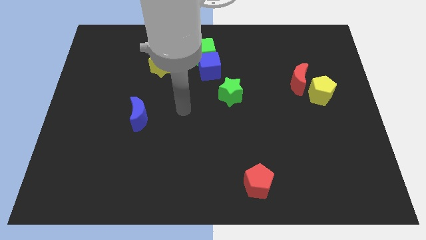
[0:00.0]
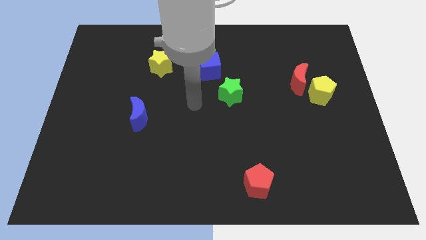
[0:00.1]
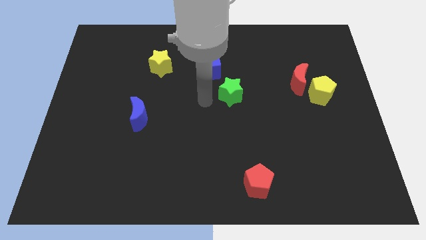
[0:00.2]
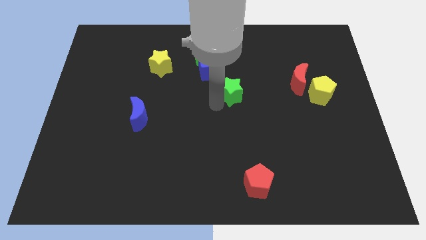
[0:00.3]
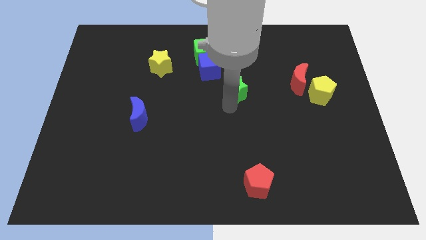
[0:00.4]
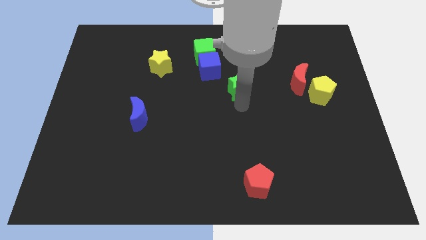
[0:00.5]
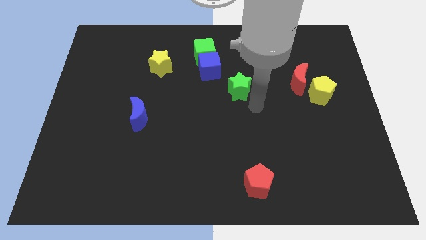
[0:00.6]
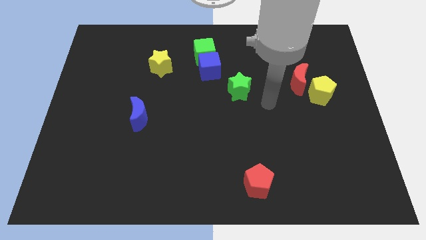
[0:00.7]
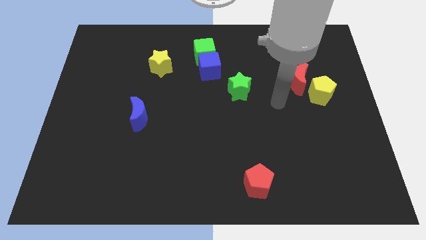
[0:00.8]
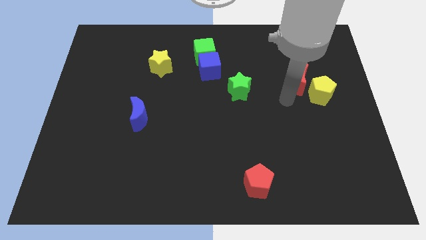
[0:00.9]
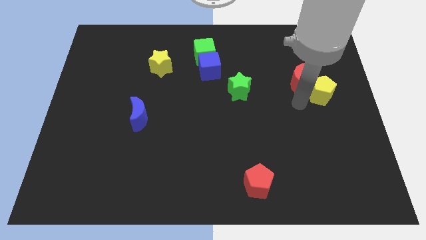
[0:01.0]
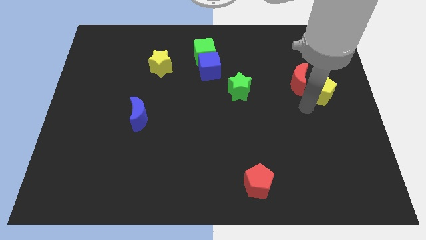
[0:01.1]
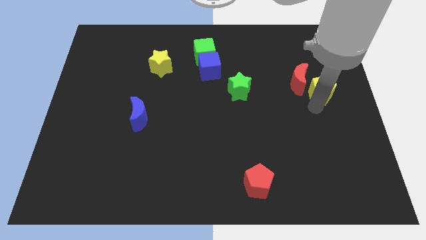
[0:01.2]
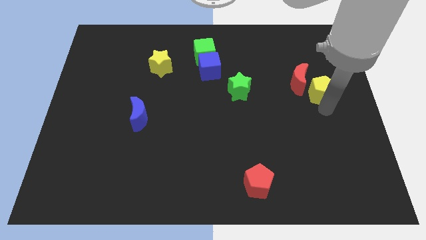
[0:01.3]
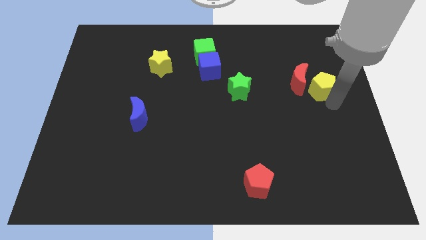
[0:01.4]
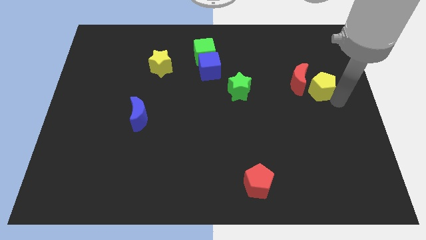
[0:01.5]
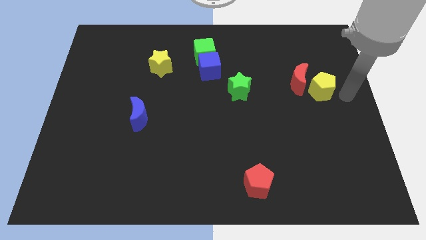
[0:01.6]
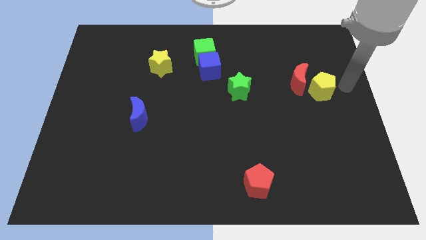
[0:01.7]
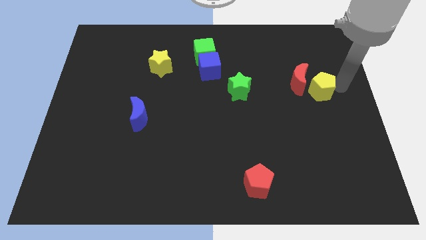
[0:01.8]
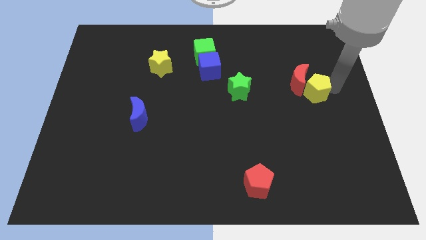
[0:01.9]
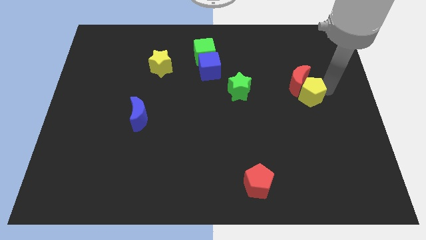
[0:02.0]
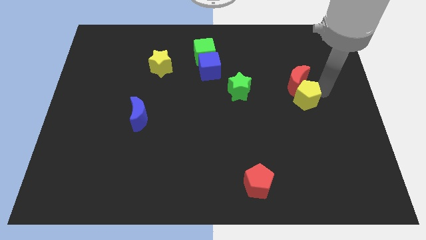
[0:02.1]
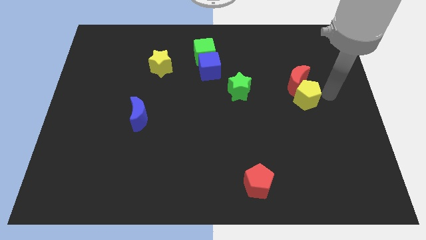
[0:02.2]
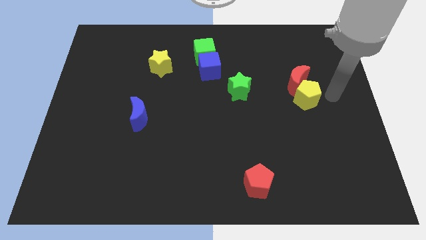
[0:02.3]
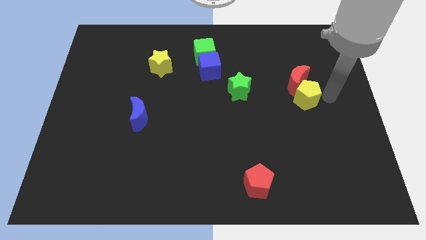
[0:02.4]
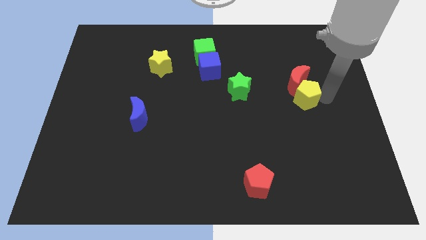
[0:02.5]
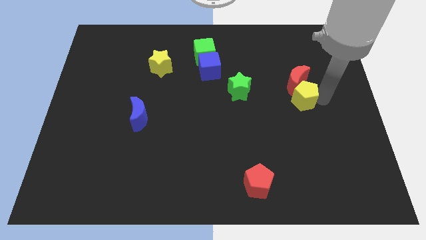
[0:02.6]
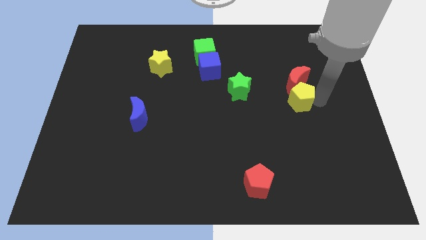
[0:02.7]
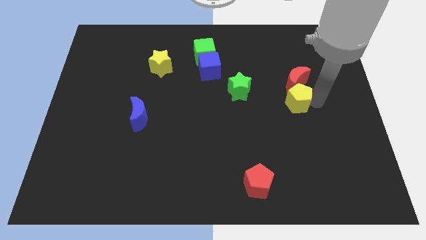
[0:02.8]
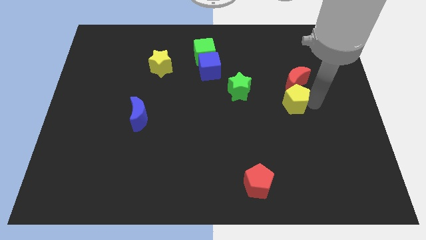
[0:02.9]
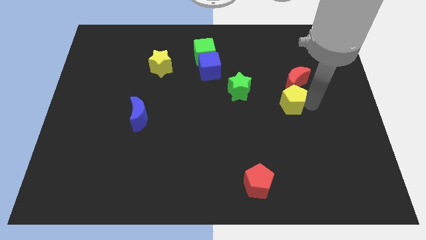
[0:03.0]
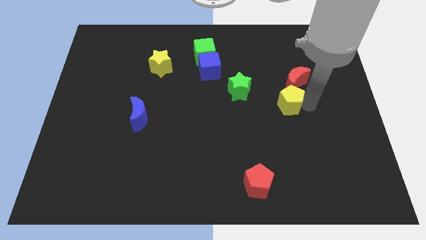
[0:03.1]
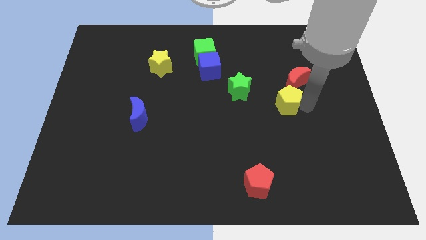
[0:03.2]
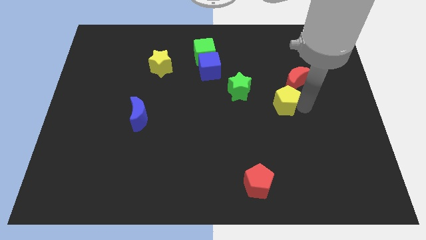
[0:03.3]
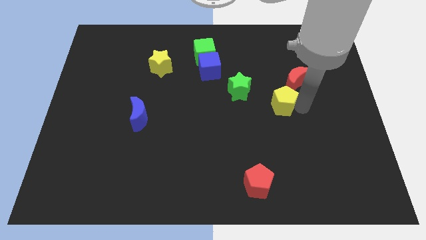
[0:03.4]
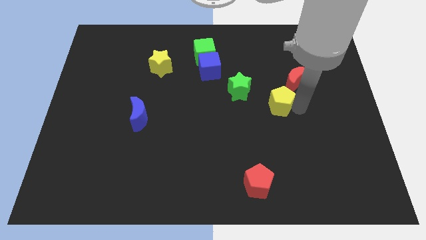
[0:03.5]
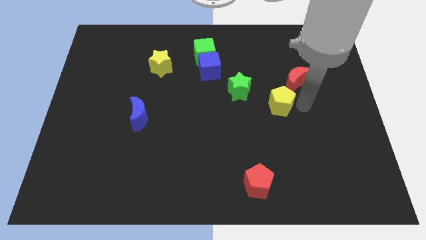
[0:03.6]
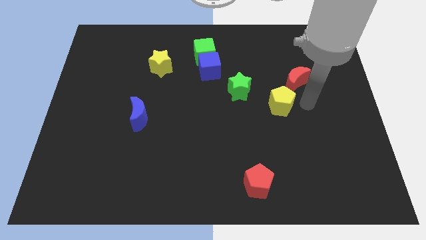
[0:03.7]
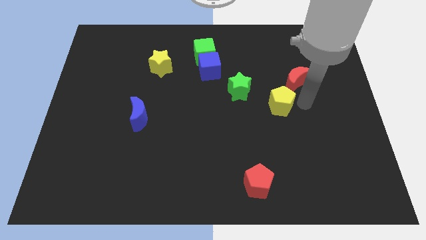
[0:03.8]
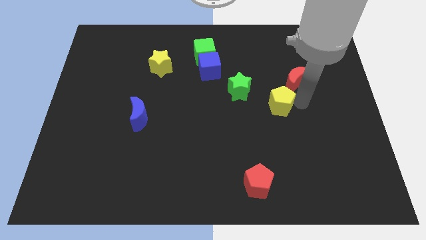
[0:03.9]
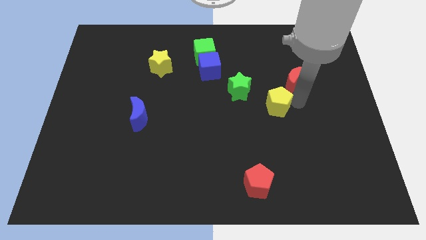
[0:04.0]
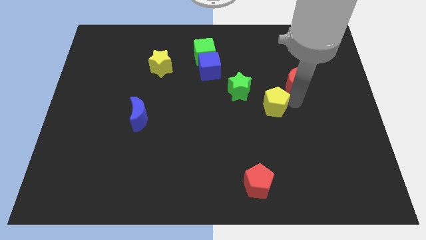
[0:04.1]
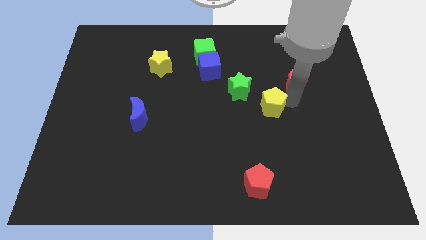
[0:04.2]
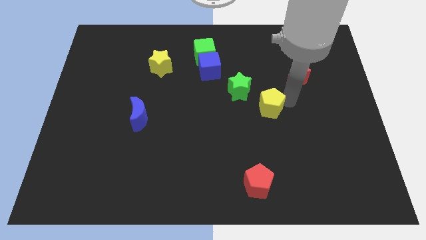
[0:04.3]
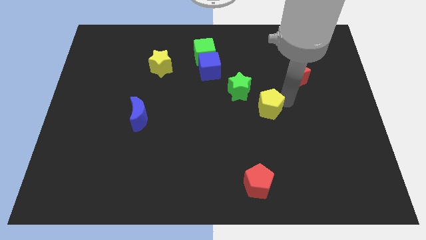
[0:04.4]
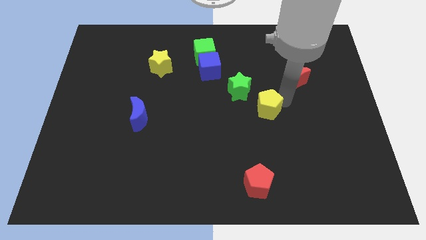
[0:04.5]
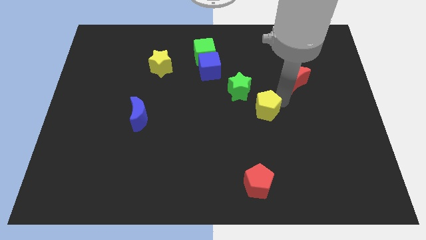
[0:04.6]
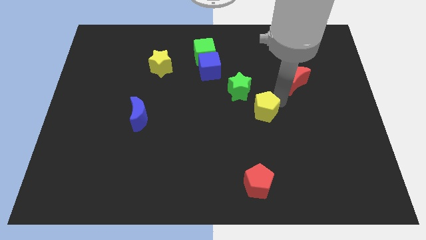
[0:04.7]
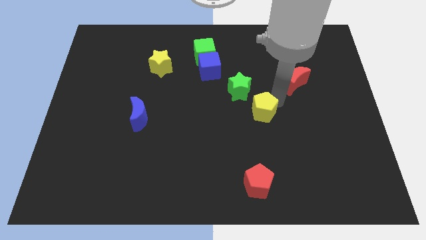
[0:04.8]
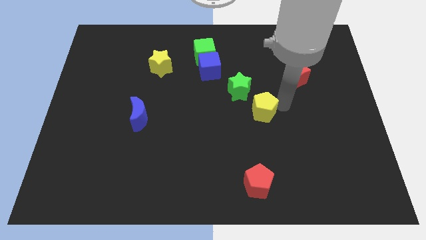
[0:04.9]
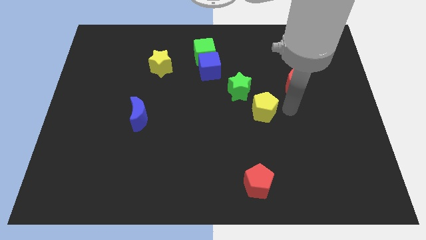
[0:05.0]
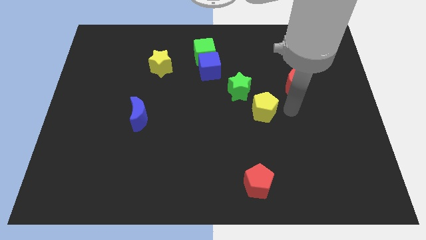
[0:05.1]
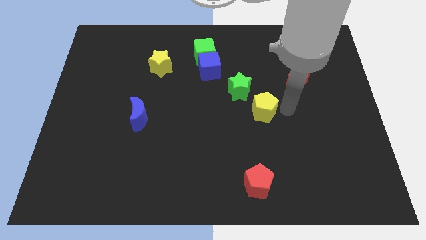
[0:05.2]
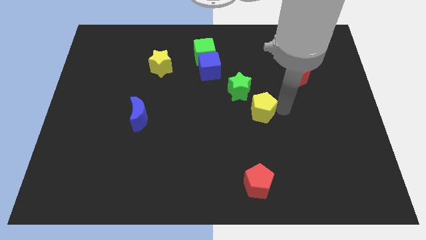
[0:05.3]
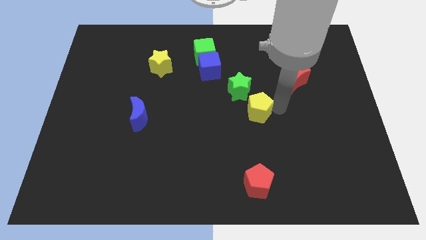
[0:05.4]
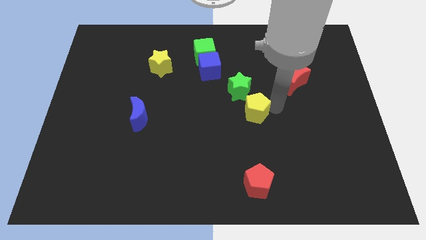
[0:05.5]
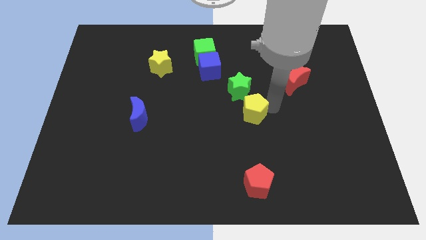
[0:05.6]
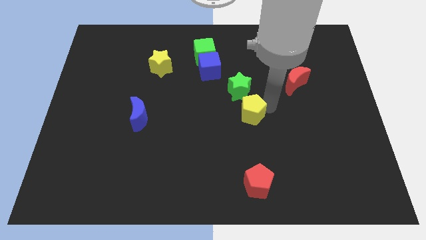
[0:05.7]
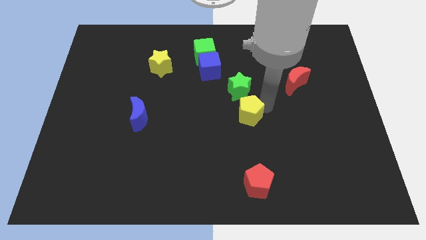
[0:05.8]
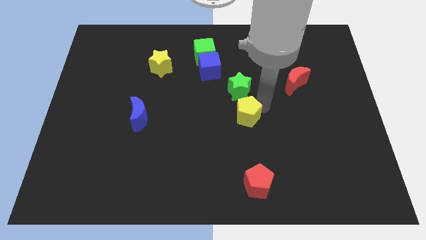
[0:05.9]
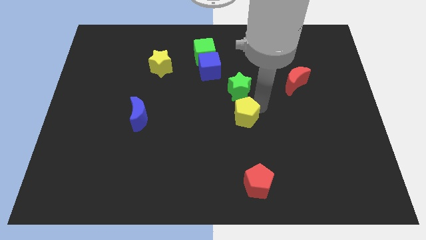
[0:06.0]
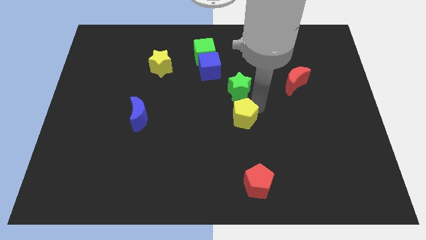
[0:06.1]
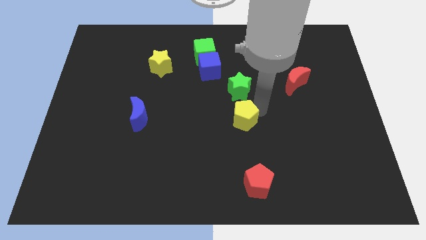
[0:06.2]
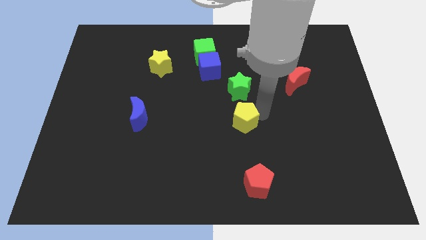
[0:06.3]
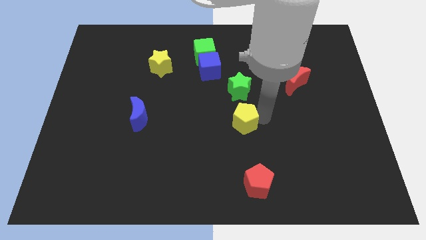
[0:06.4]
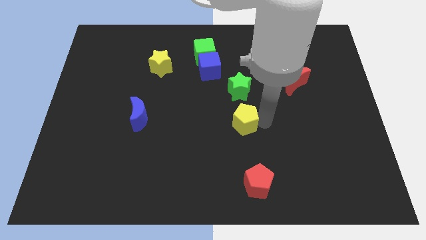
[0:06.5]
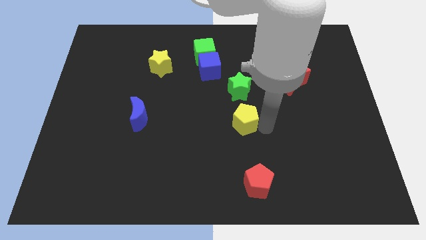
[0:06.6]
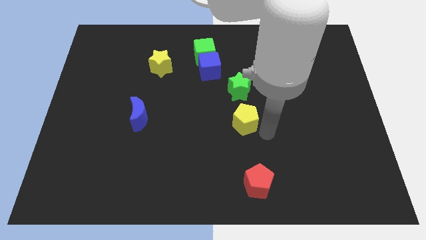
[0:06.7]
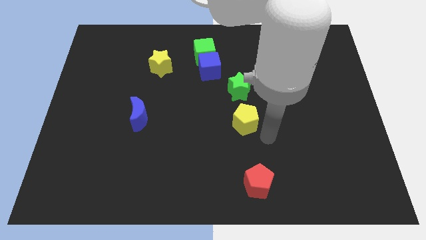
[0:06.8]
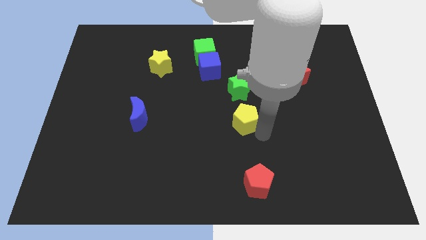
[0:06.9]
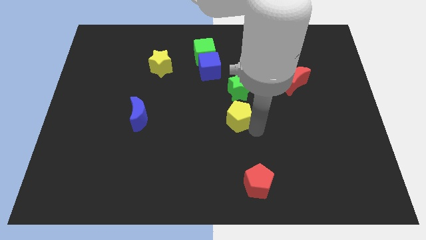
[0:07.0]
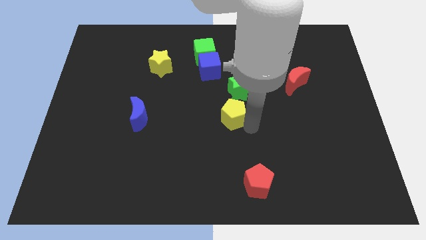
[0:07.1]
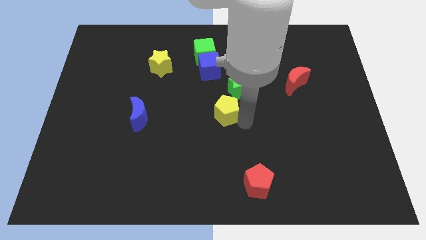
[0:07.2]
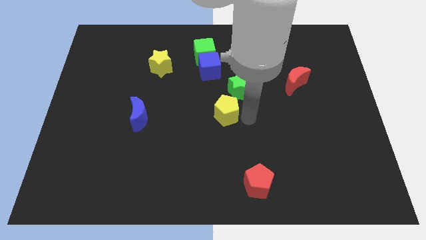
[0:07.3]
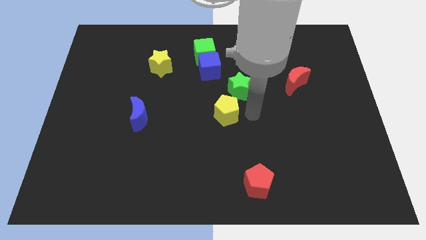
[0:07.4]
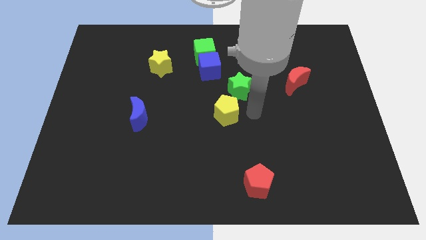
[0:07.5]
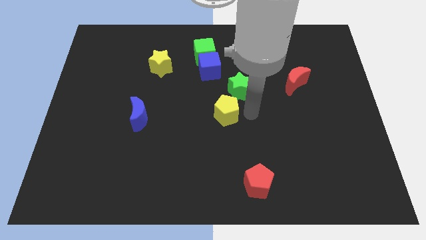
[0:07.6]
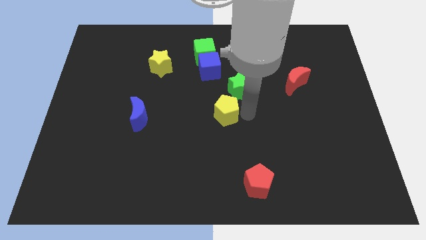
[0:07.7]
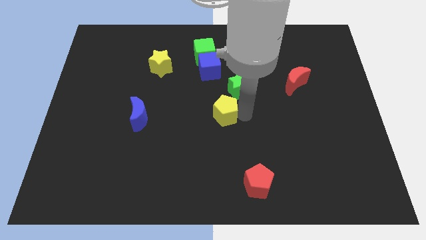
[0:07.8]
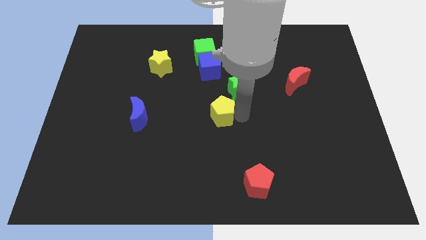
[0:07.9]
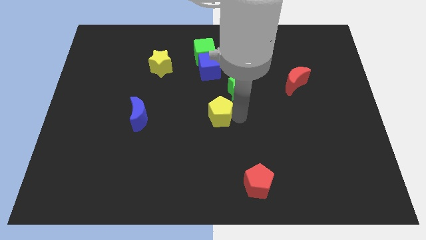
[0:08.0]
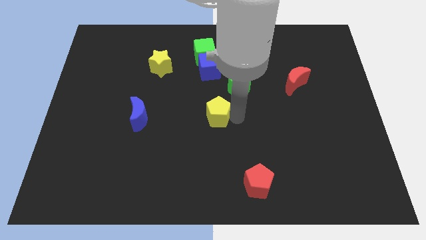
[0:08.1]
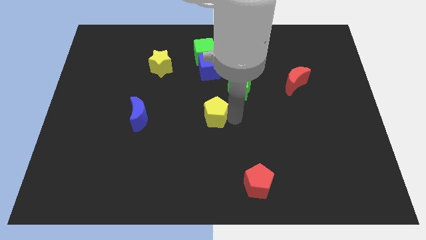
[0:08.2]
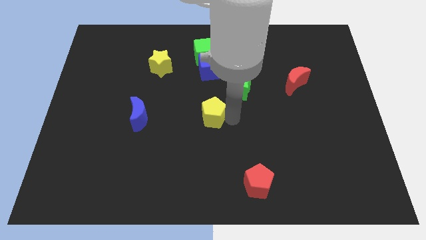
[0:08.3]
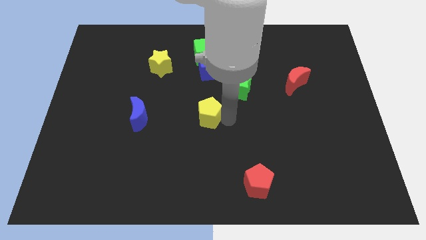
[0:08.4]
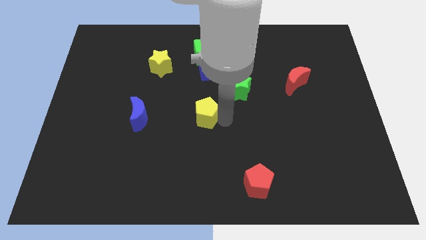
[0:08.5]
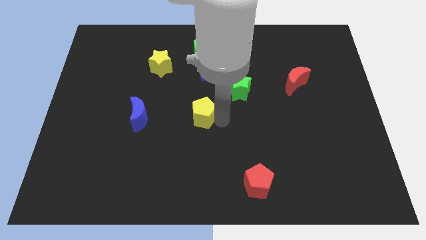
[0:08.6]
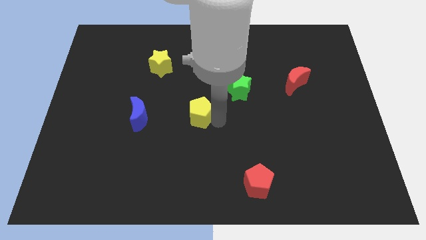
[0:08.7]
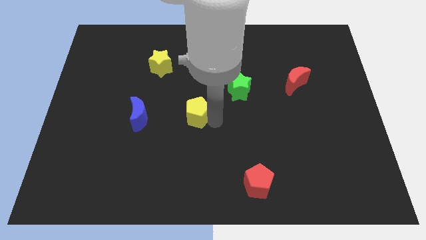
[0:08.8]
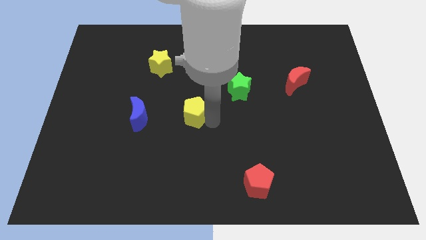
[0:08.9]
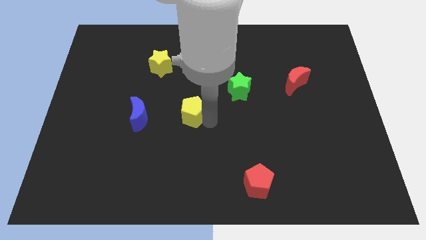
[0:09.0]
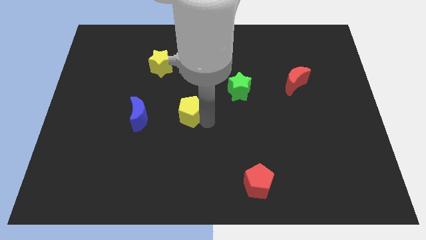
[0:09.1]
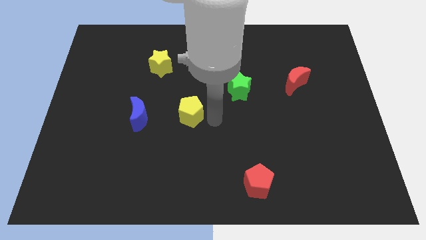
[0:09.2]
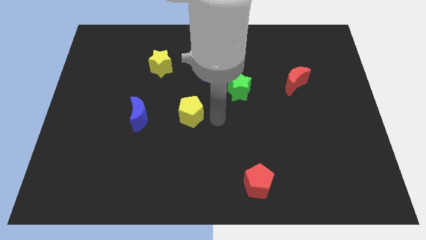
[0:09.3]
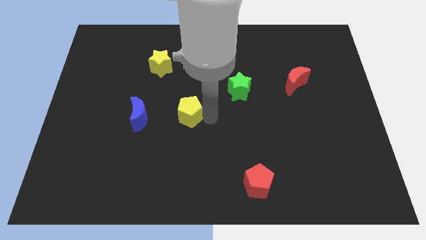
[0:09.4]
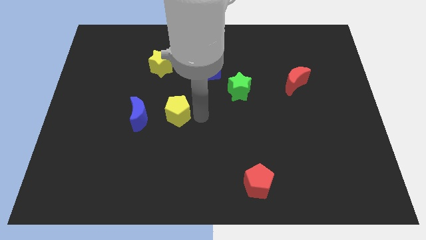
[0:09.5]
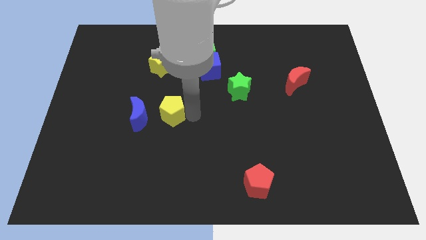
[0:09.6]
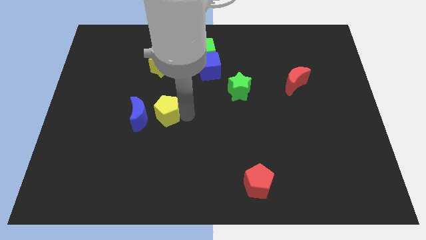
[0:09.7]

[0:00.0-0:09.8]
slide the yellow pentagon next to the blue moon
